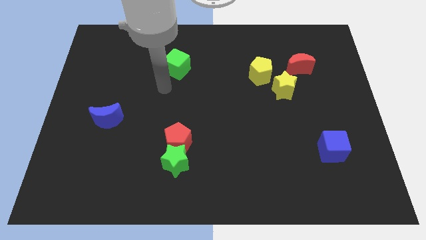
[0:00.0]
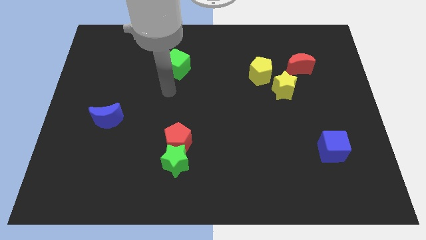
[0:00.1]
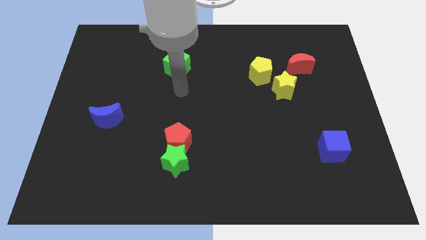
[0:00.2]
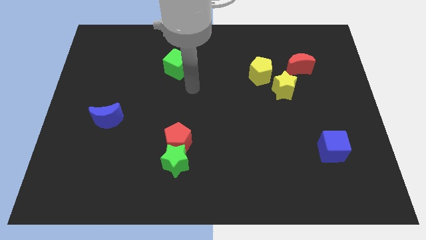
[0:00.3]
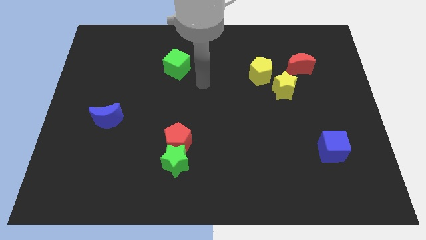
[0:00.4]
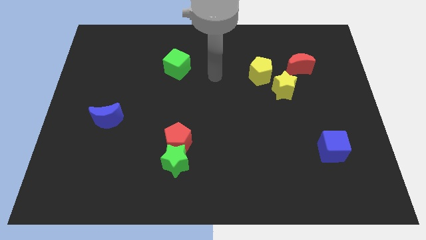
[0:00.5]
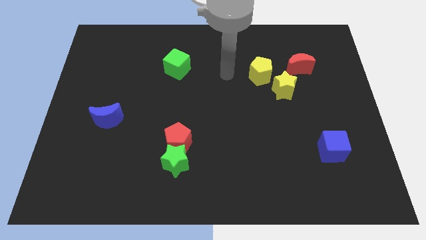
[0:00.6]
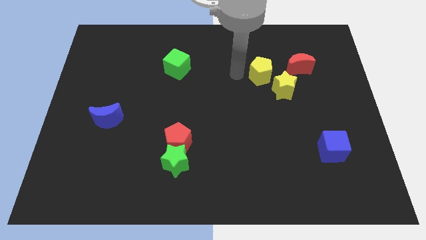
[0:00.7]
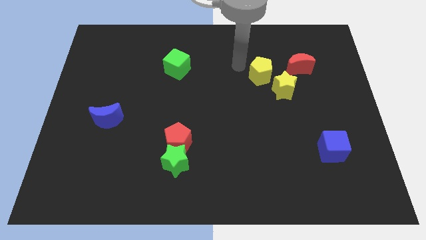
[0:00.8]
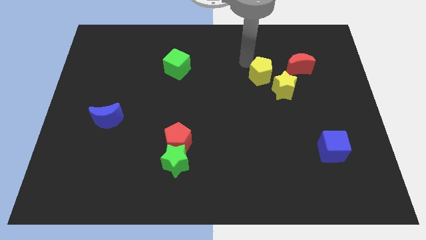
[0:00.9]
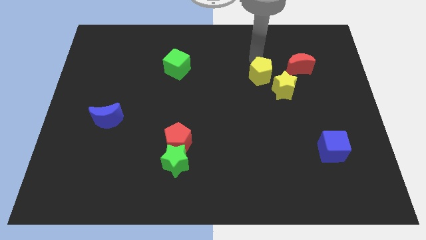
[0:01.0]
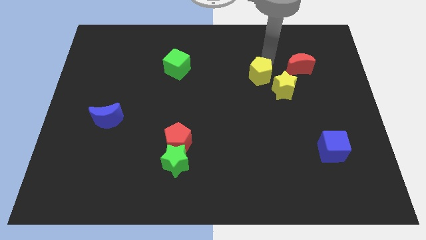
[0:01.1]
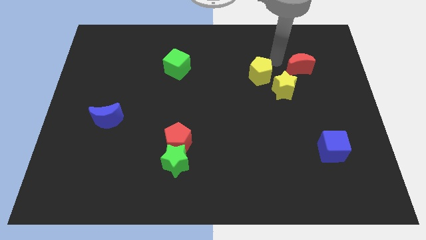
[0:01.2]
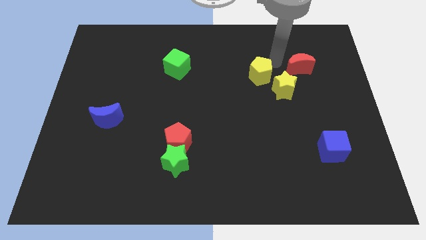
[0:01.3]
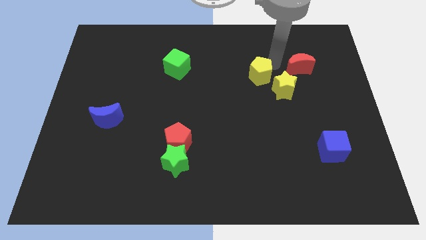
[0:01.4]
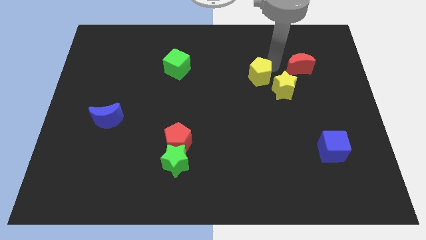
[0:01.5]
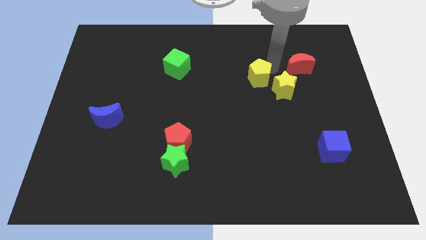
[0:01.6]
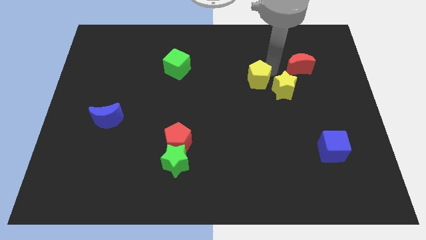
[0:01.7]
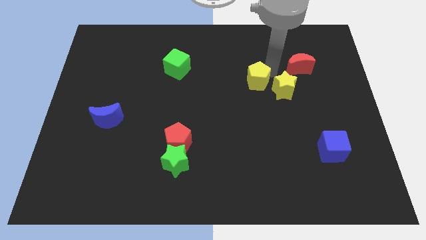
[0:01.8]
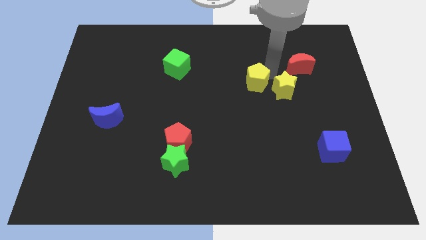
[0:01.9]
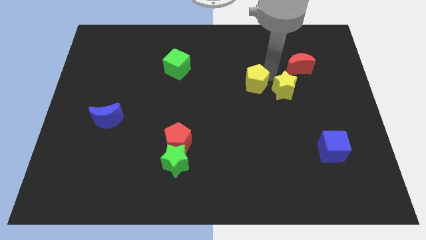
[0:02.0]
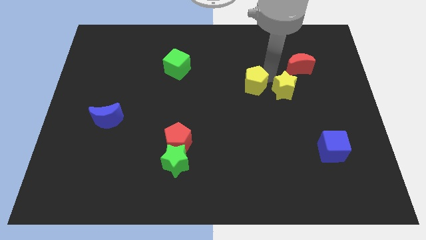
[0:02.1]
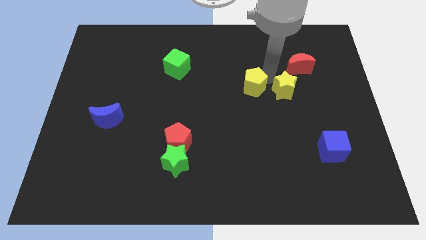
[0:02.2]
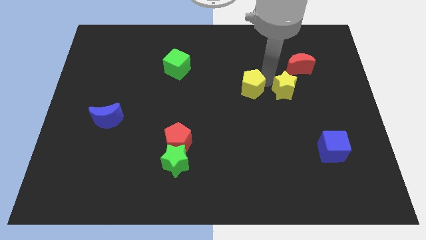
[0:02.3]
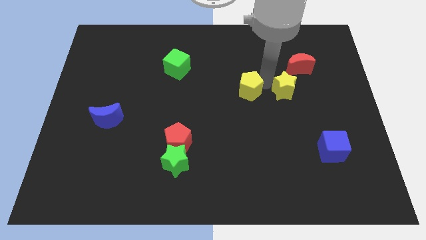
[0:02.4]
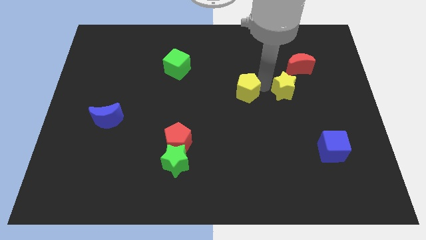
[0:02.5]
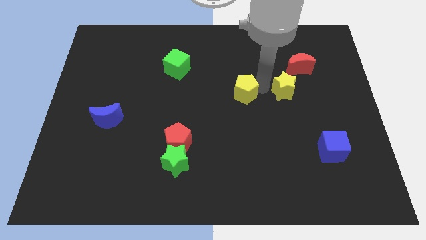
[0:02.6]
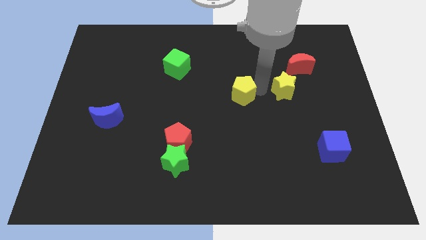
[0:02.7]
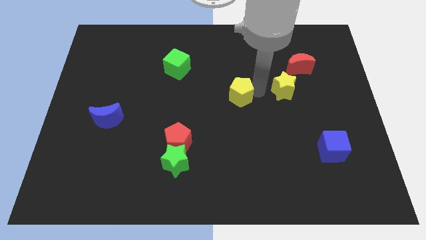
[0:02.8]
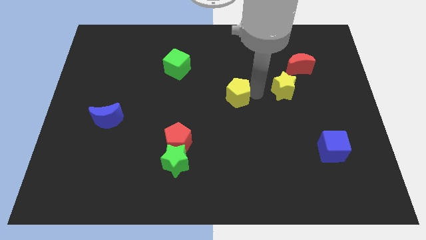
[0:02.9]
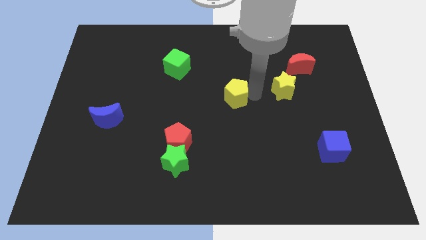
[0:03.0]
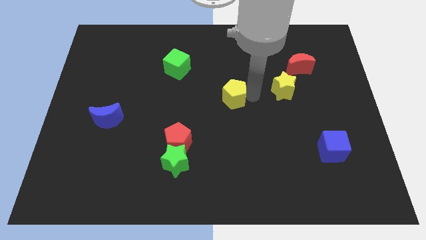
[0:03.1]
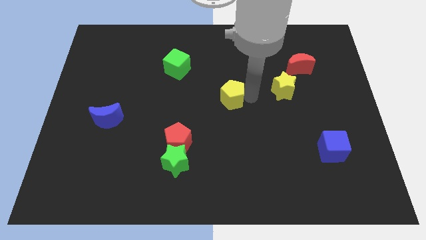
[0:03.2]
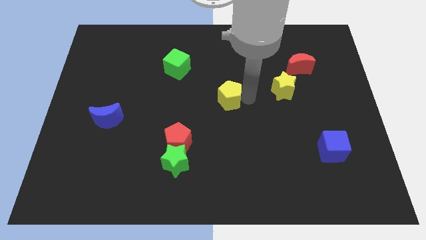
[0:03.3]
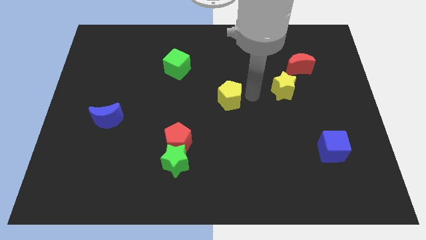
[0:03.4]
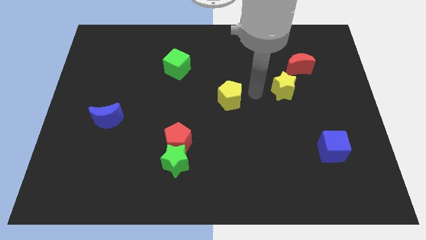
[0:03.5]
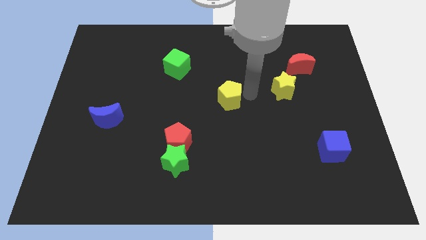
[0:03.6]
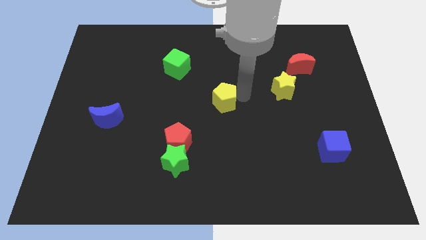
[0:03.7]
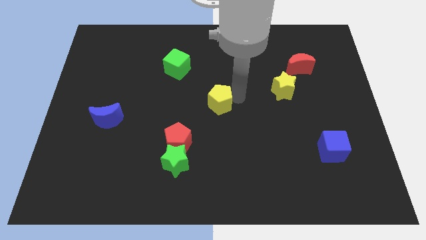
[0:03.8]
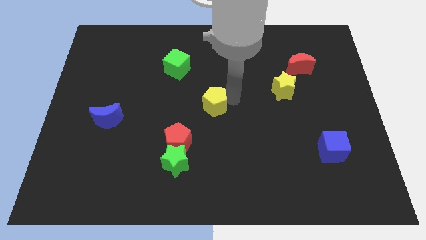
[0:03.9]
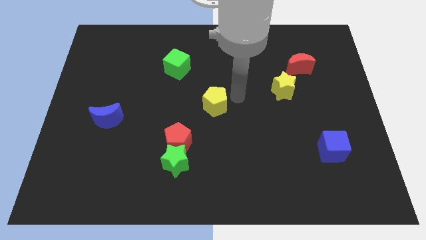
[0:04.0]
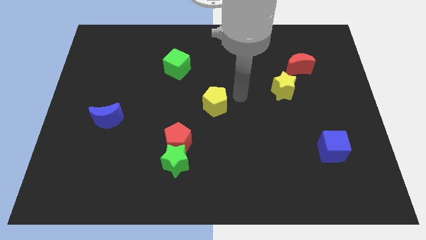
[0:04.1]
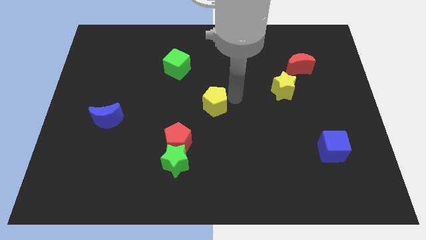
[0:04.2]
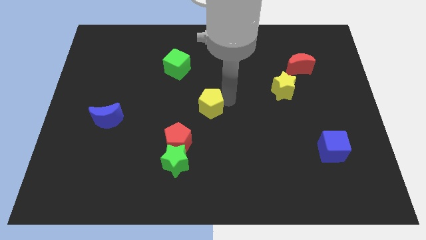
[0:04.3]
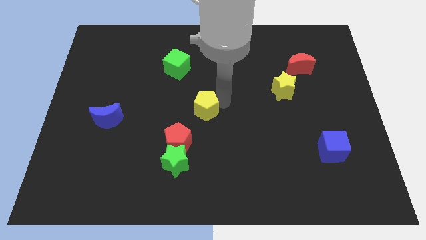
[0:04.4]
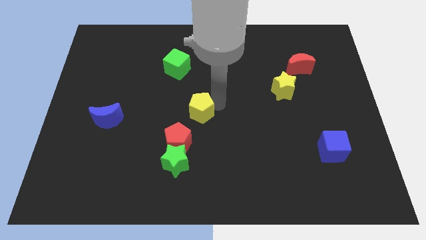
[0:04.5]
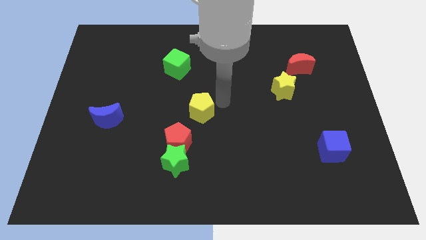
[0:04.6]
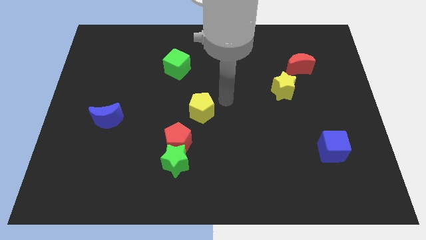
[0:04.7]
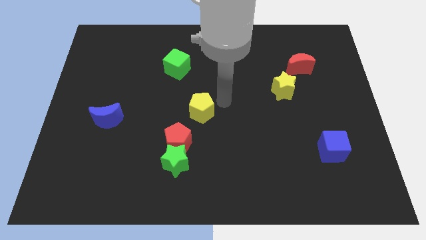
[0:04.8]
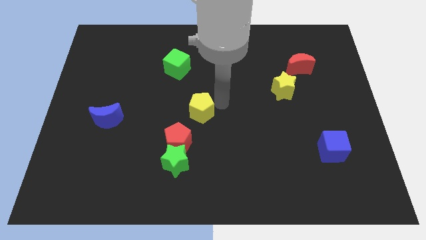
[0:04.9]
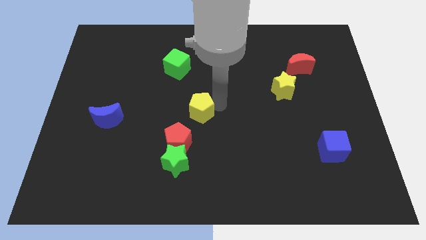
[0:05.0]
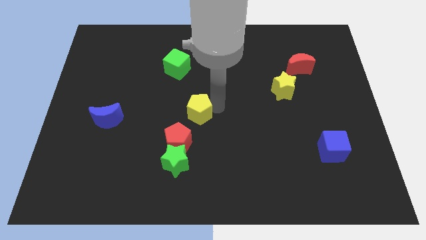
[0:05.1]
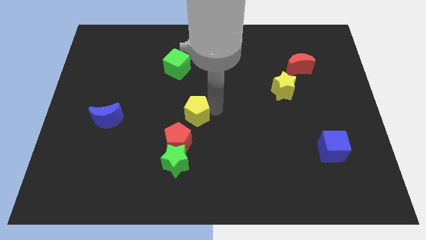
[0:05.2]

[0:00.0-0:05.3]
push the yellow pentagon downwards and then to the left

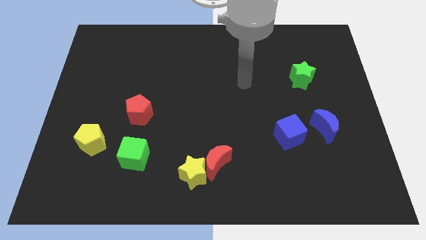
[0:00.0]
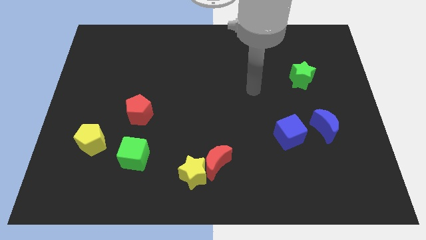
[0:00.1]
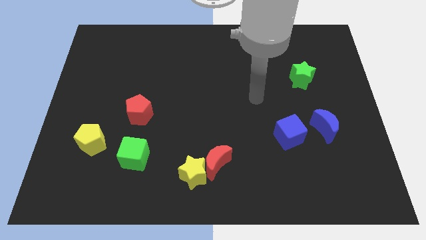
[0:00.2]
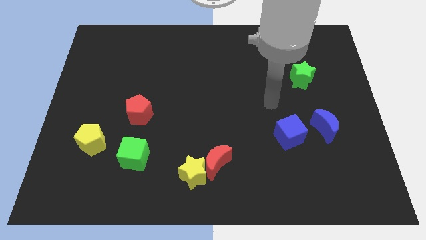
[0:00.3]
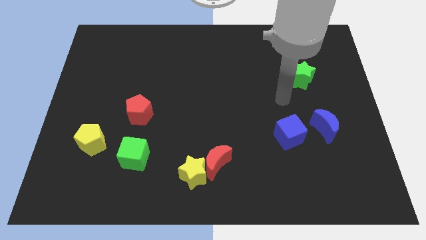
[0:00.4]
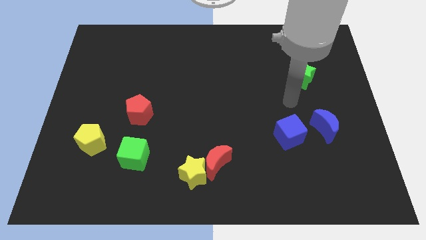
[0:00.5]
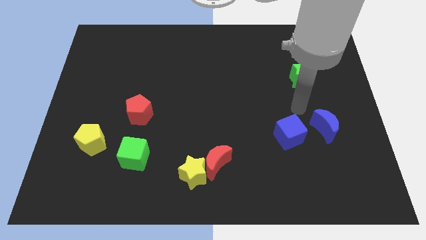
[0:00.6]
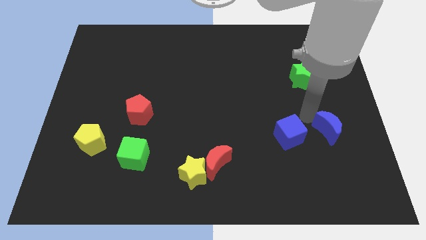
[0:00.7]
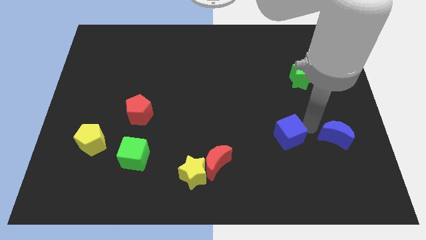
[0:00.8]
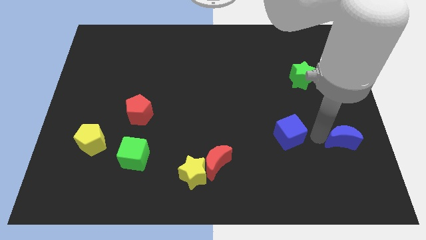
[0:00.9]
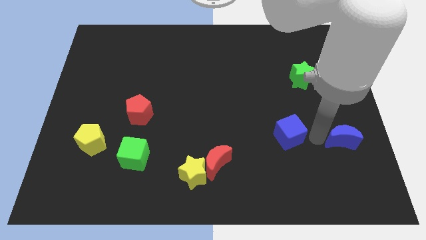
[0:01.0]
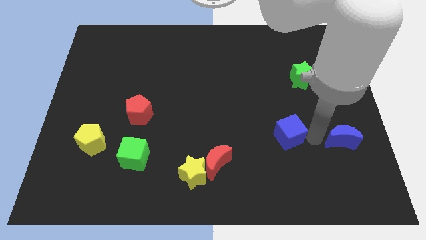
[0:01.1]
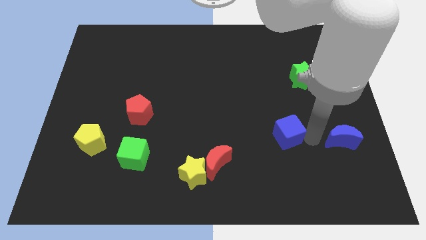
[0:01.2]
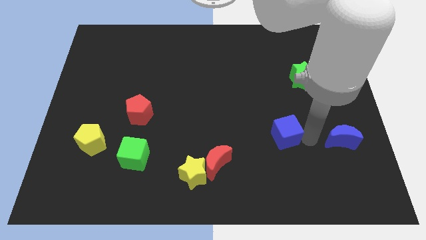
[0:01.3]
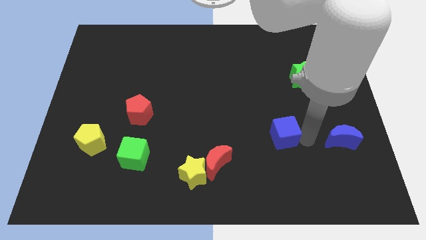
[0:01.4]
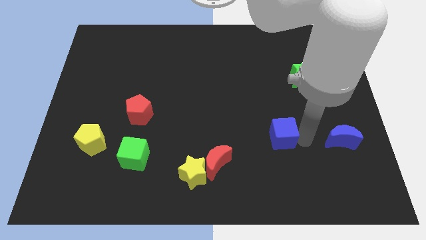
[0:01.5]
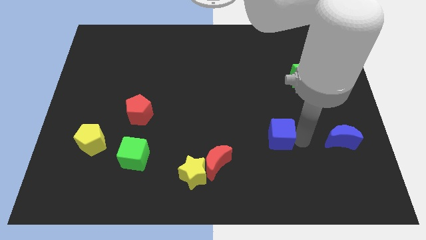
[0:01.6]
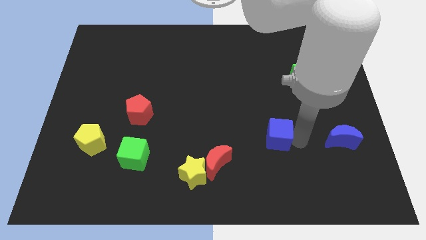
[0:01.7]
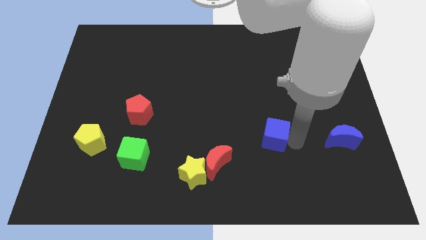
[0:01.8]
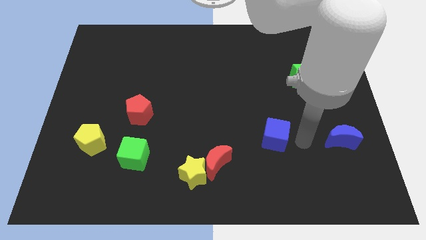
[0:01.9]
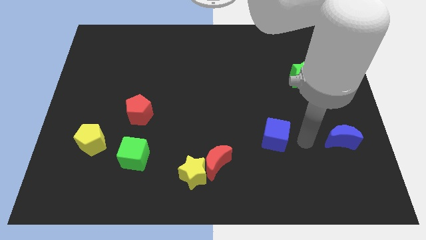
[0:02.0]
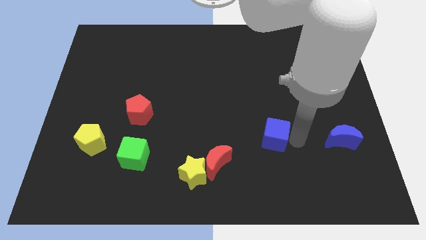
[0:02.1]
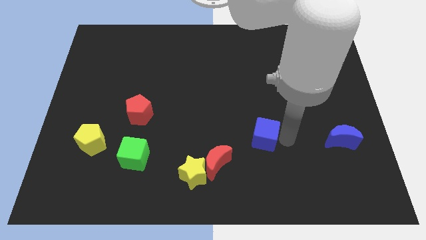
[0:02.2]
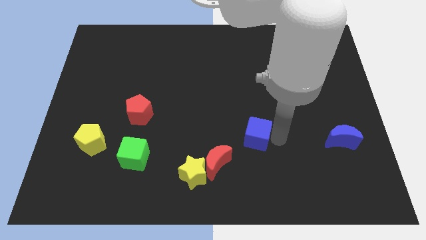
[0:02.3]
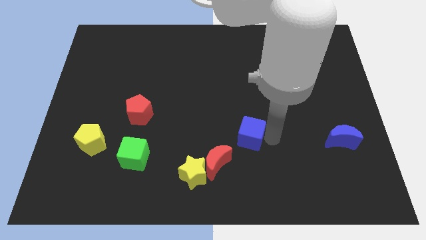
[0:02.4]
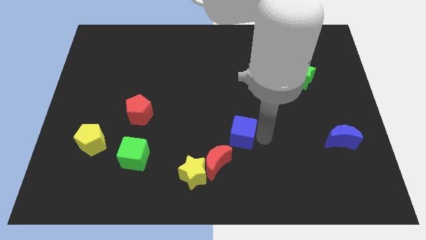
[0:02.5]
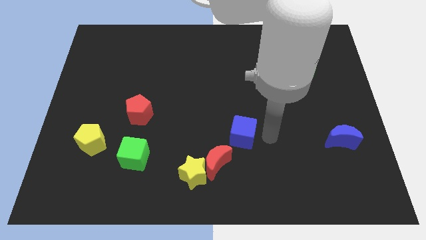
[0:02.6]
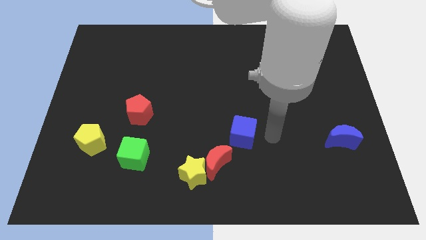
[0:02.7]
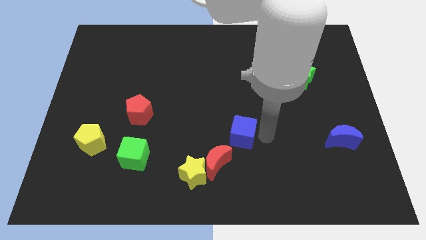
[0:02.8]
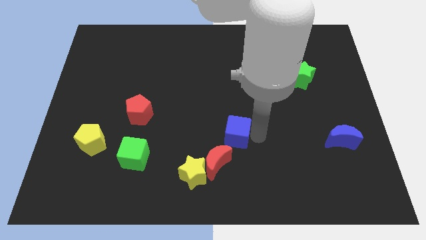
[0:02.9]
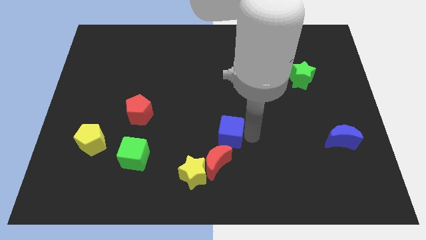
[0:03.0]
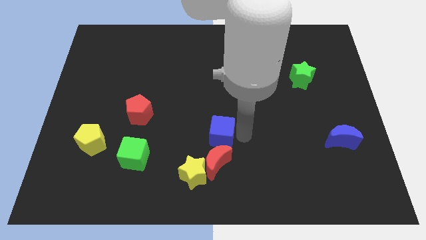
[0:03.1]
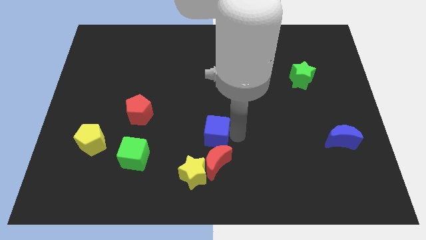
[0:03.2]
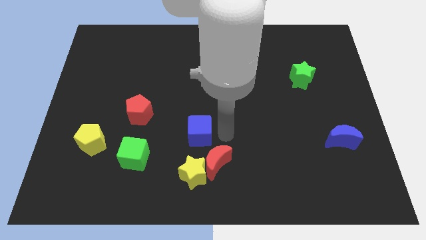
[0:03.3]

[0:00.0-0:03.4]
move the blue cube to the left
